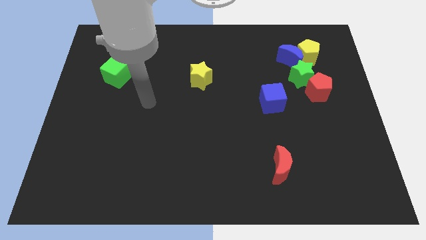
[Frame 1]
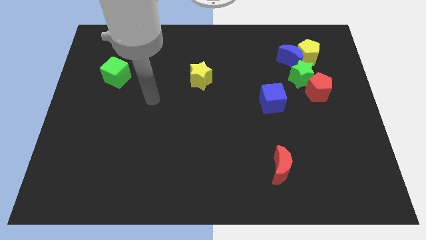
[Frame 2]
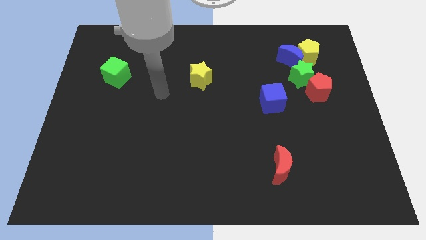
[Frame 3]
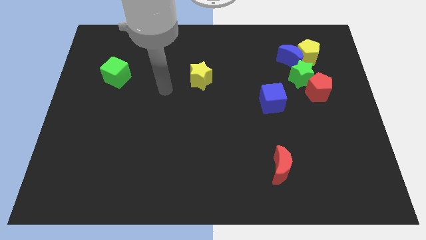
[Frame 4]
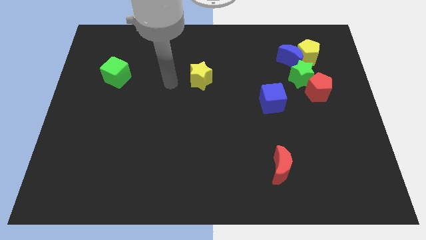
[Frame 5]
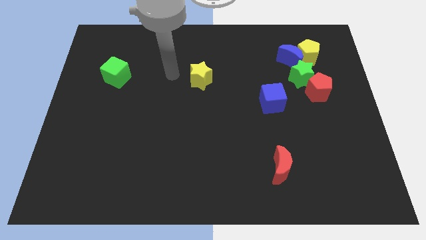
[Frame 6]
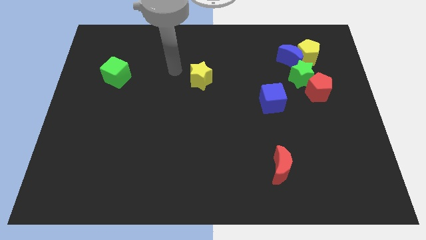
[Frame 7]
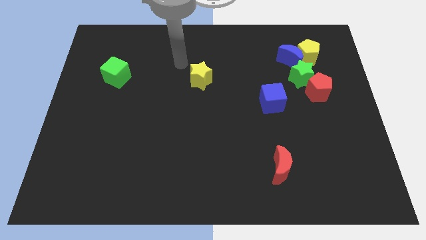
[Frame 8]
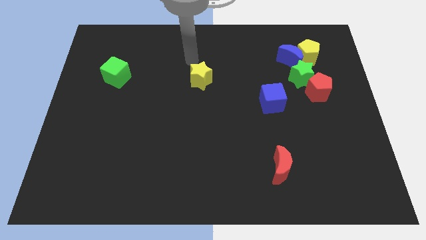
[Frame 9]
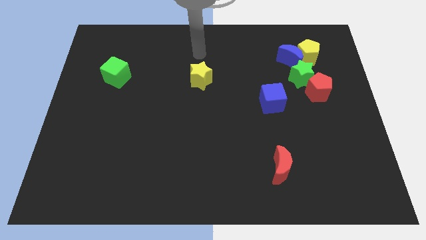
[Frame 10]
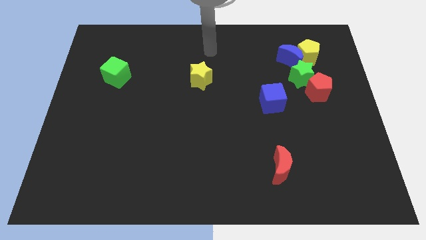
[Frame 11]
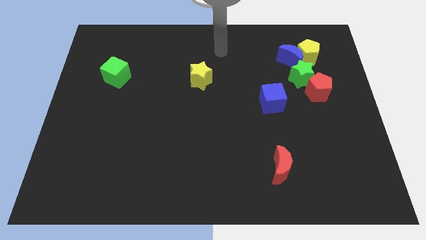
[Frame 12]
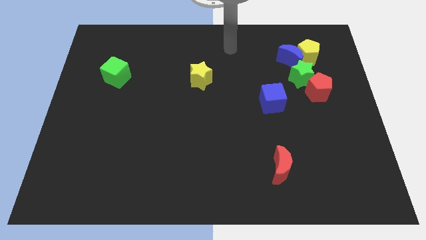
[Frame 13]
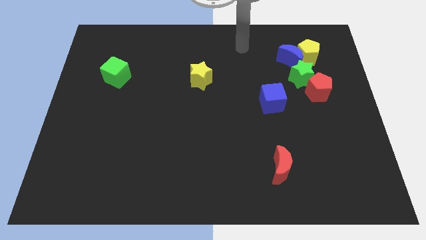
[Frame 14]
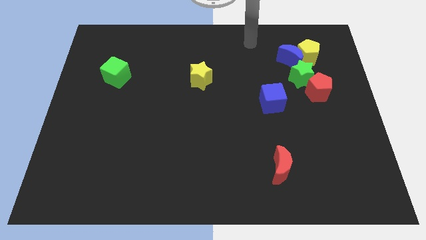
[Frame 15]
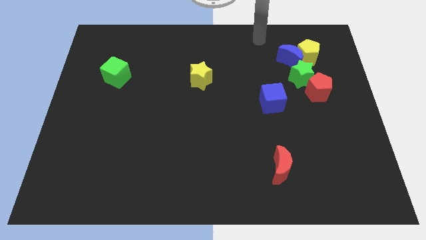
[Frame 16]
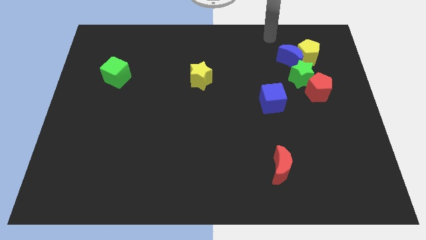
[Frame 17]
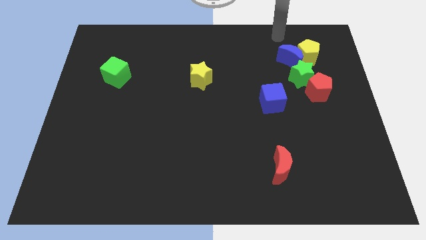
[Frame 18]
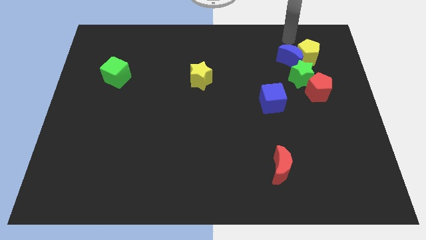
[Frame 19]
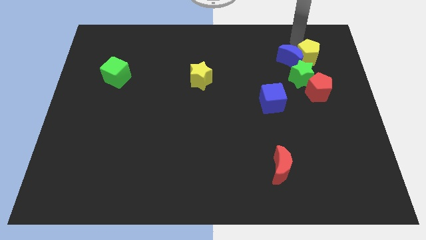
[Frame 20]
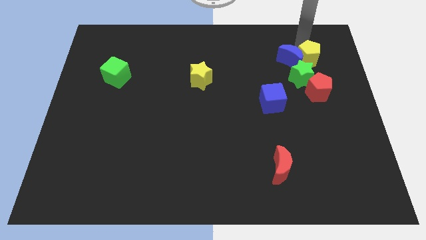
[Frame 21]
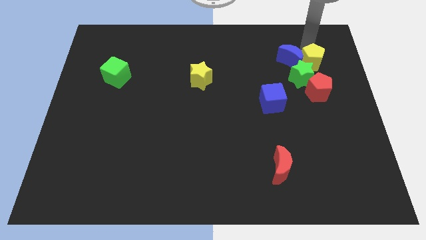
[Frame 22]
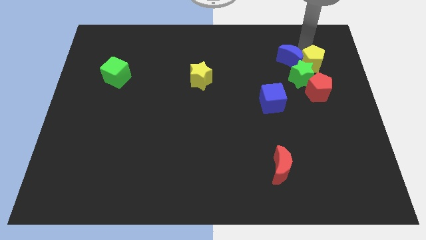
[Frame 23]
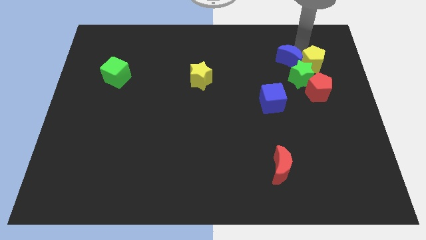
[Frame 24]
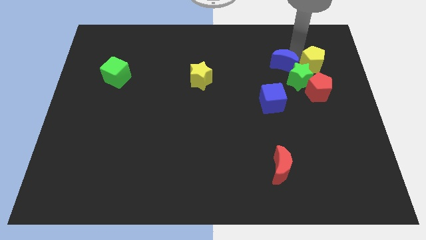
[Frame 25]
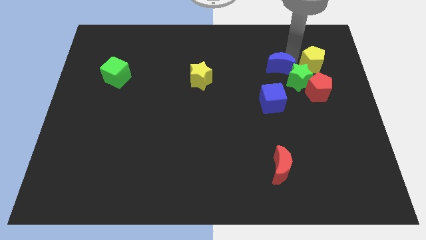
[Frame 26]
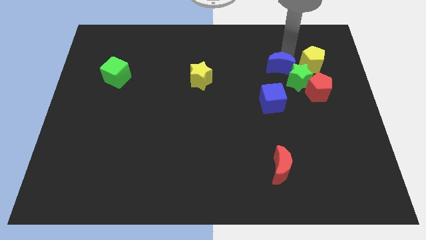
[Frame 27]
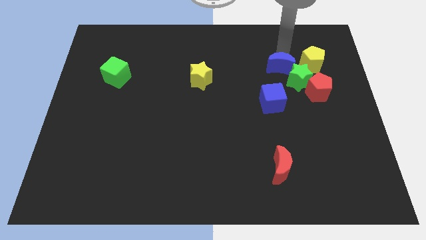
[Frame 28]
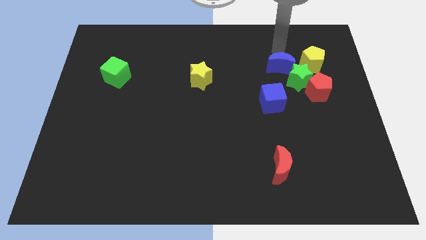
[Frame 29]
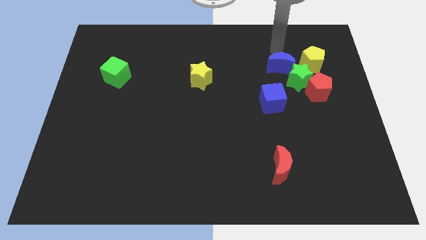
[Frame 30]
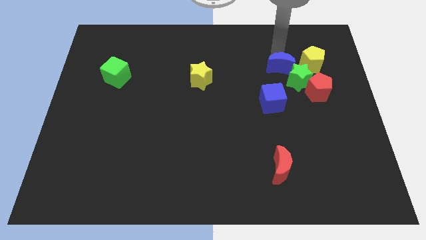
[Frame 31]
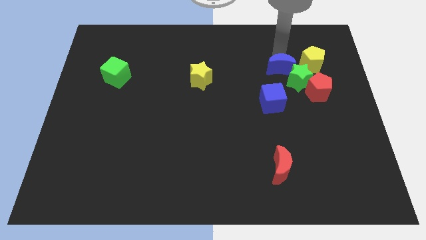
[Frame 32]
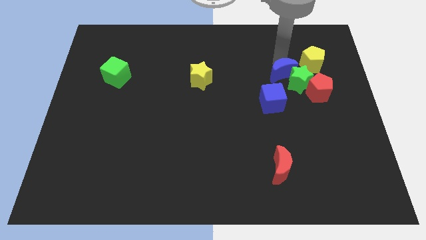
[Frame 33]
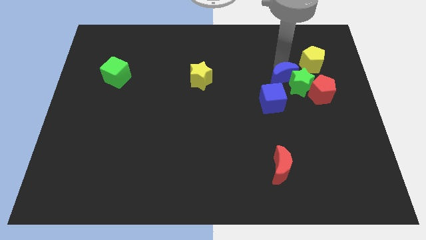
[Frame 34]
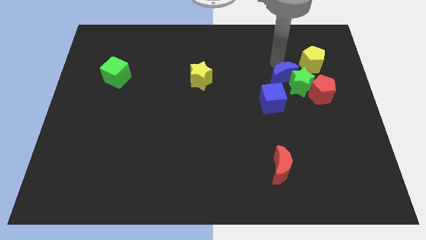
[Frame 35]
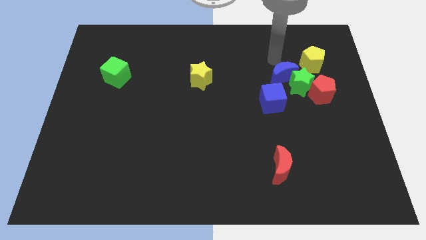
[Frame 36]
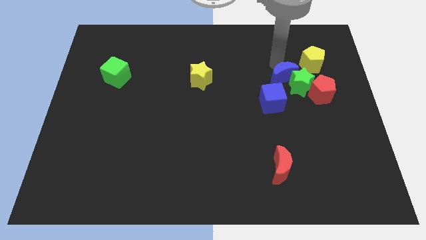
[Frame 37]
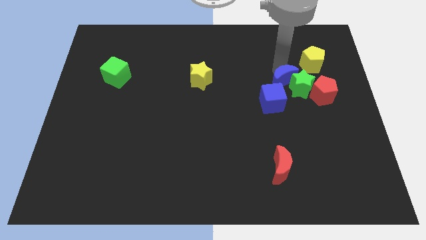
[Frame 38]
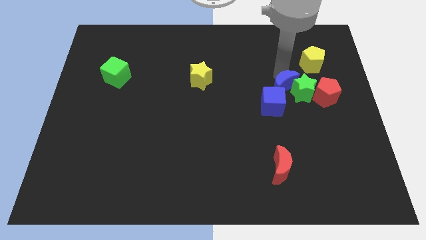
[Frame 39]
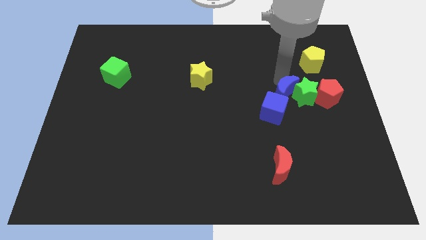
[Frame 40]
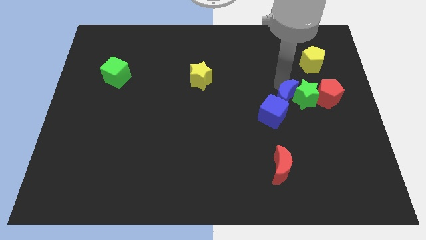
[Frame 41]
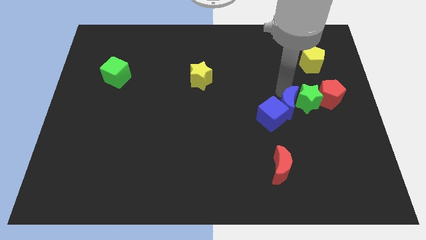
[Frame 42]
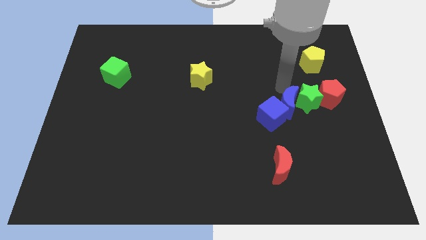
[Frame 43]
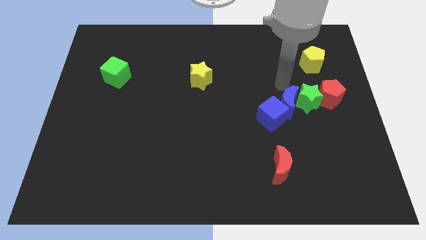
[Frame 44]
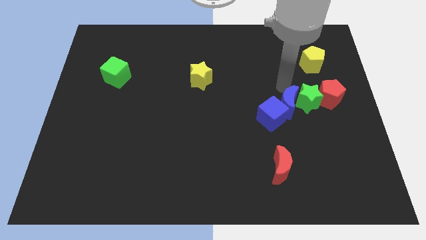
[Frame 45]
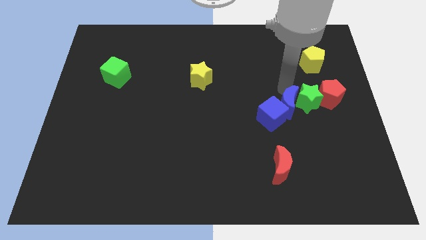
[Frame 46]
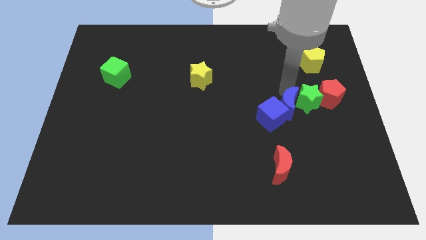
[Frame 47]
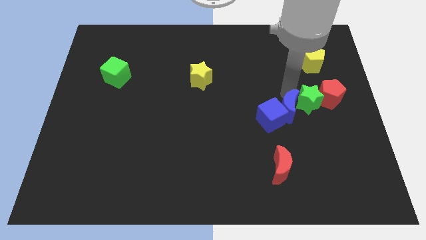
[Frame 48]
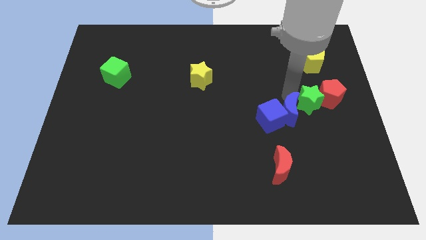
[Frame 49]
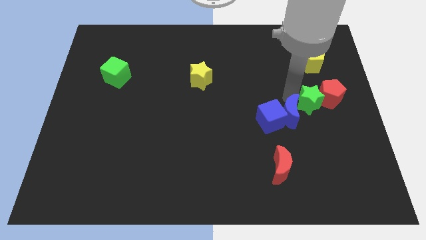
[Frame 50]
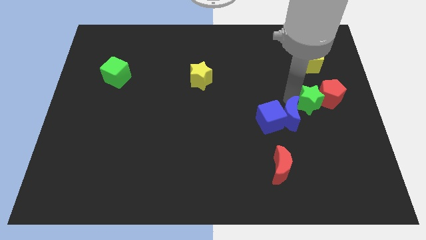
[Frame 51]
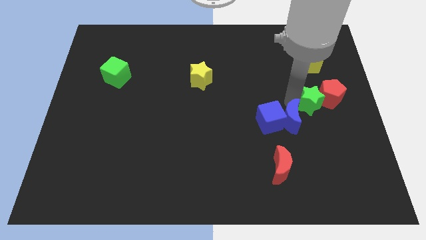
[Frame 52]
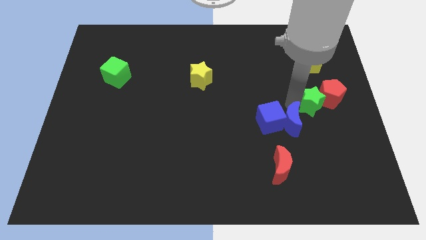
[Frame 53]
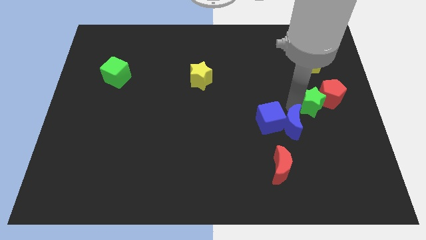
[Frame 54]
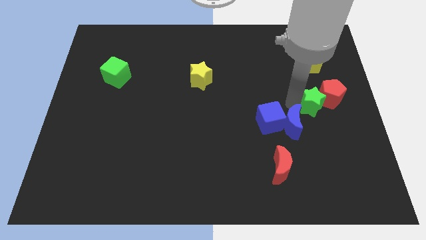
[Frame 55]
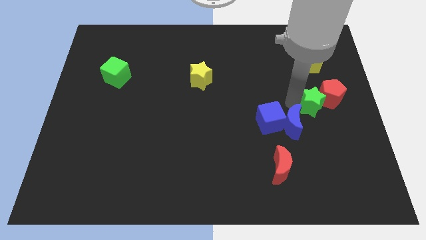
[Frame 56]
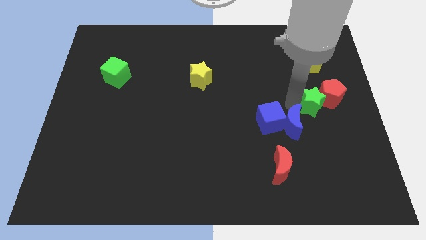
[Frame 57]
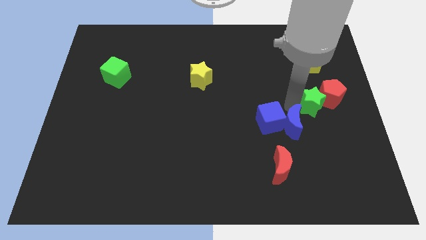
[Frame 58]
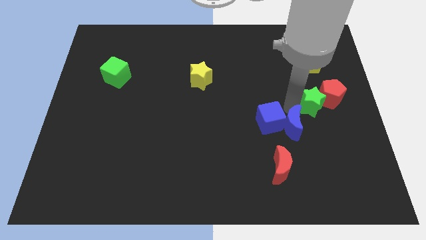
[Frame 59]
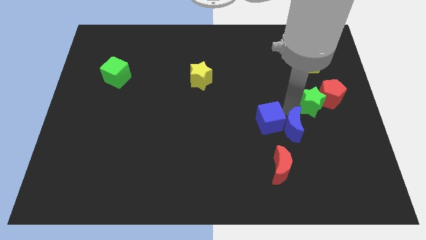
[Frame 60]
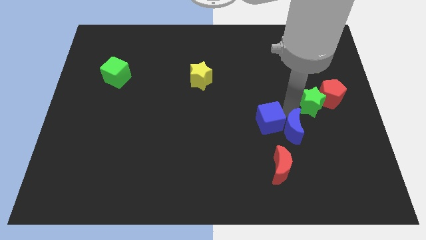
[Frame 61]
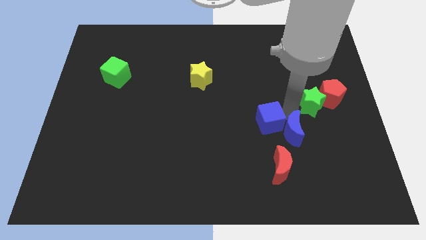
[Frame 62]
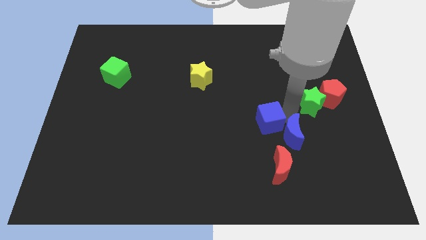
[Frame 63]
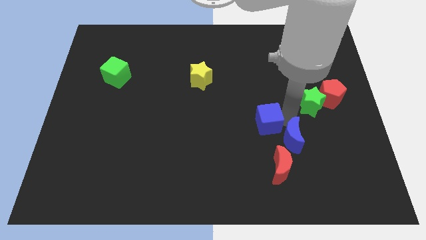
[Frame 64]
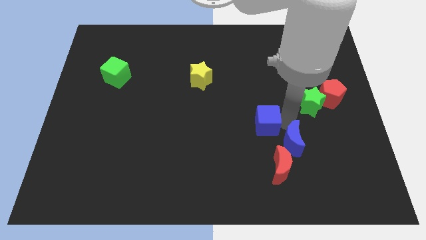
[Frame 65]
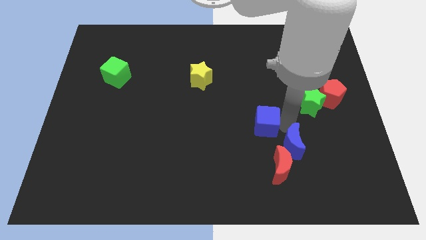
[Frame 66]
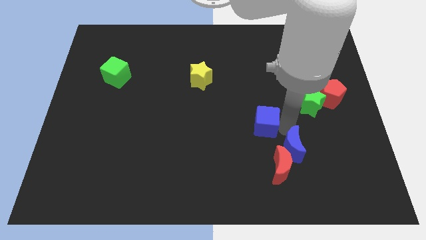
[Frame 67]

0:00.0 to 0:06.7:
slide the blue moon close to the red moon
